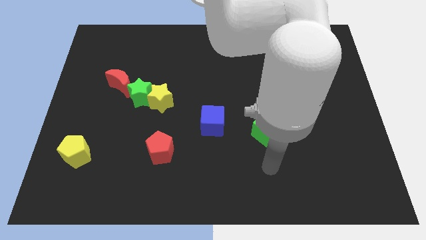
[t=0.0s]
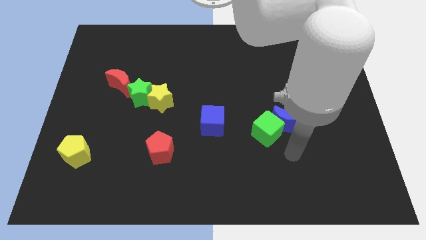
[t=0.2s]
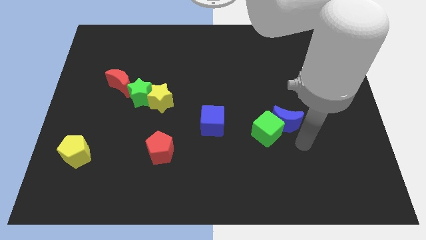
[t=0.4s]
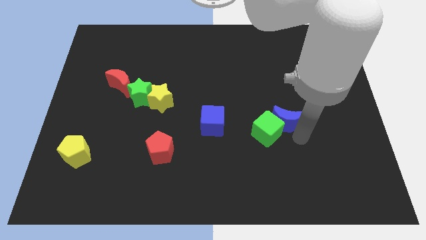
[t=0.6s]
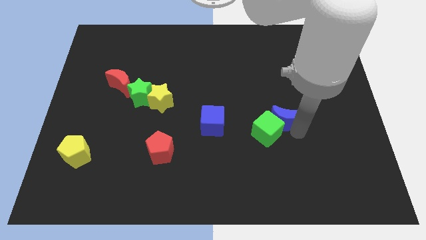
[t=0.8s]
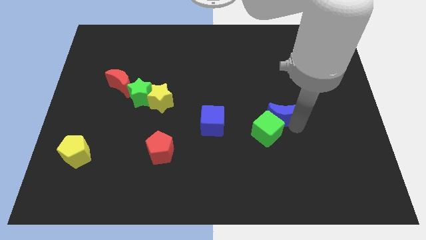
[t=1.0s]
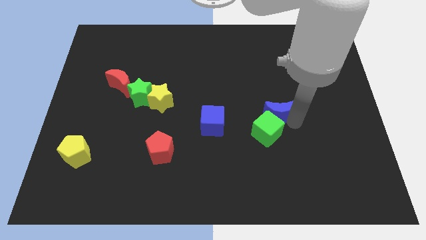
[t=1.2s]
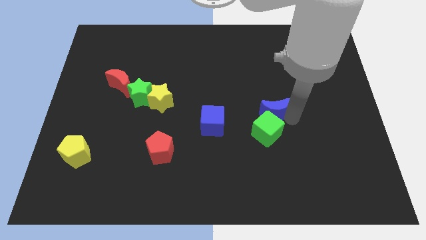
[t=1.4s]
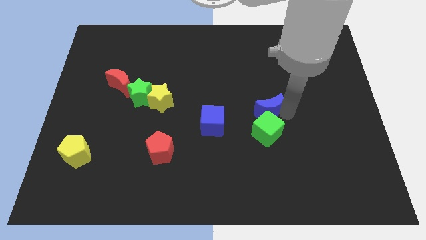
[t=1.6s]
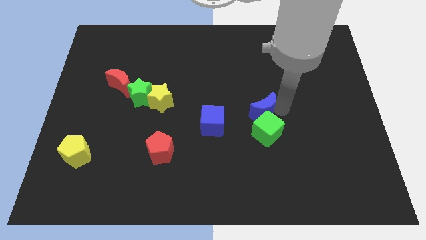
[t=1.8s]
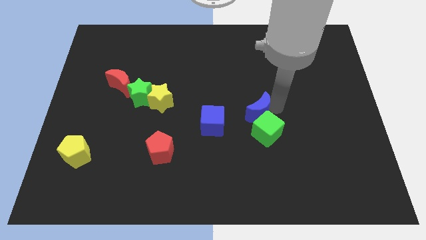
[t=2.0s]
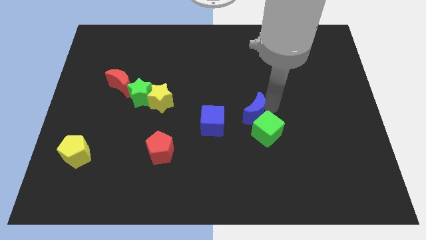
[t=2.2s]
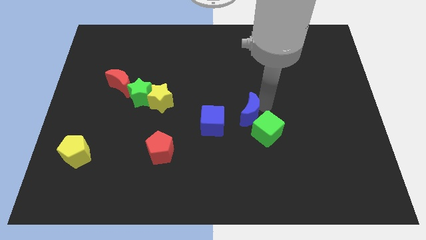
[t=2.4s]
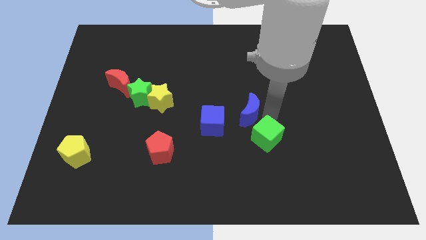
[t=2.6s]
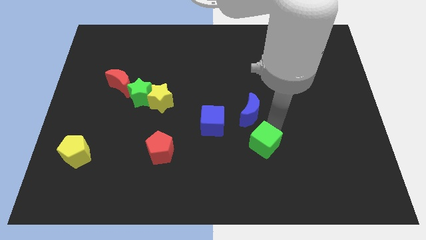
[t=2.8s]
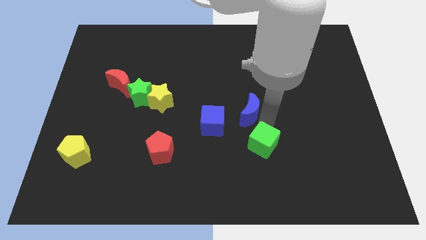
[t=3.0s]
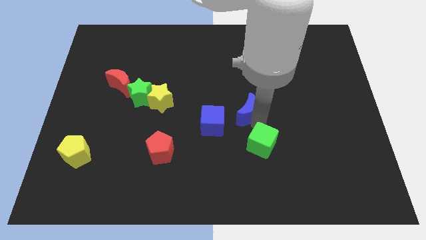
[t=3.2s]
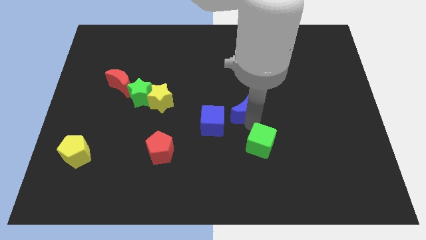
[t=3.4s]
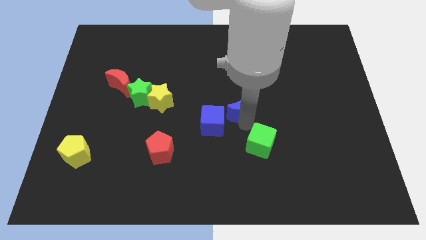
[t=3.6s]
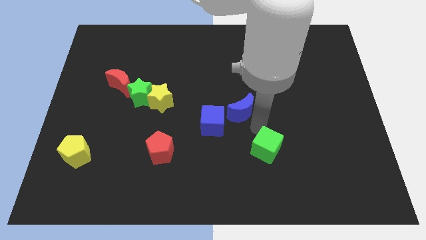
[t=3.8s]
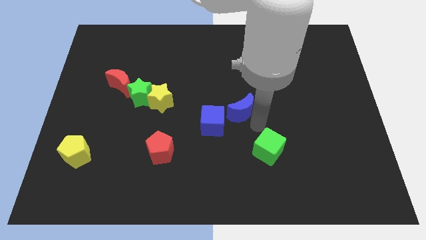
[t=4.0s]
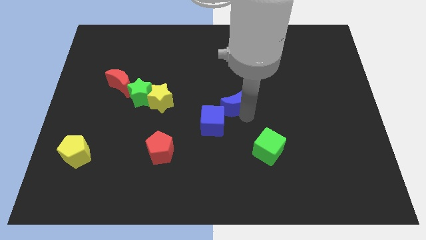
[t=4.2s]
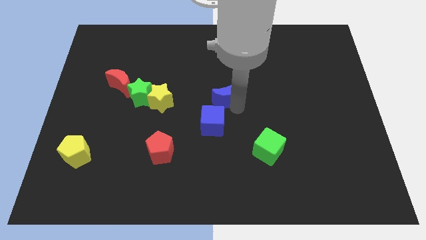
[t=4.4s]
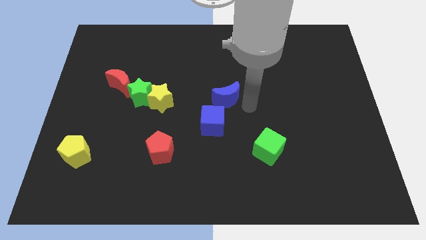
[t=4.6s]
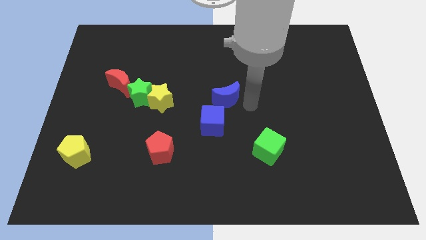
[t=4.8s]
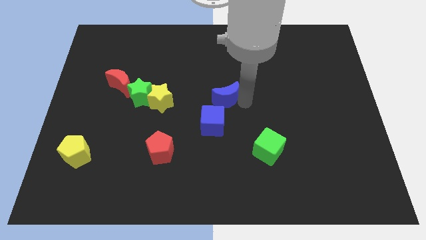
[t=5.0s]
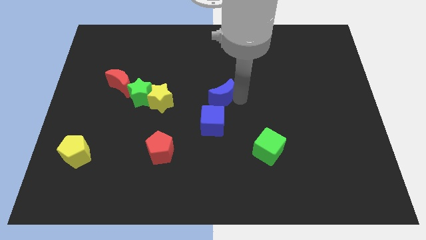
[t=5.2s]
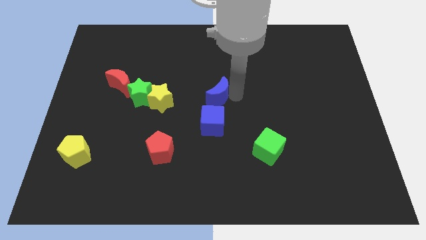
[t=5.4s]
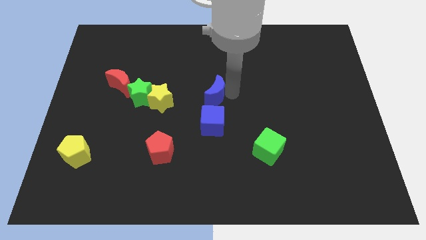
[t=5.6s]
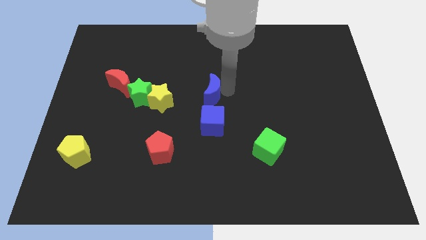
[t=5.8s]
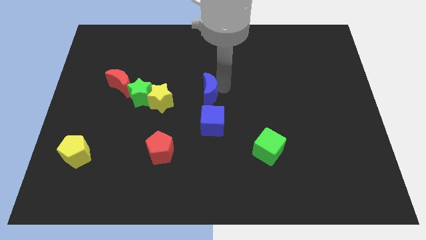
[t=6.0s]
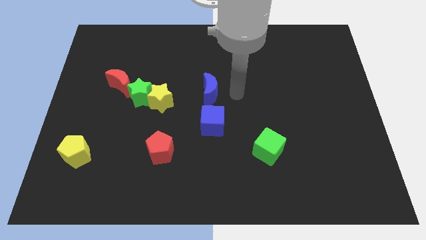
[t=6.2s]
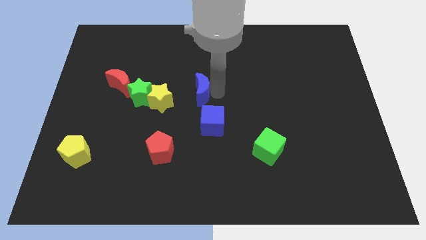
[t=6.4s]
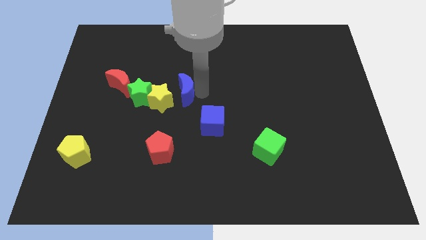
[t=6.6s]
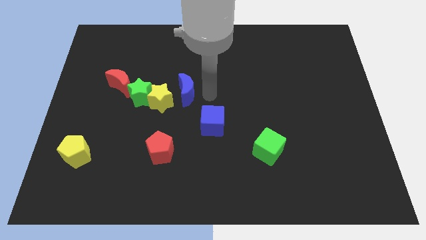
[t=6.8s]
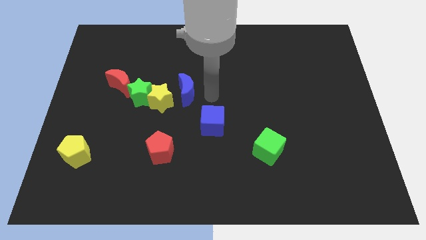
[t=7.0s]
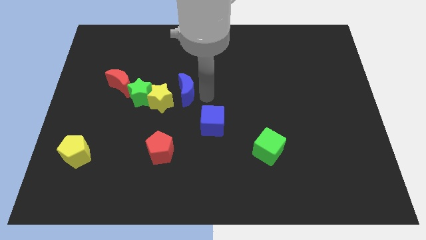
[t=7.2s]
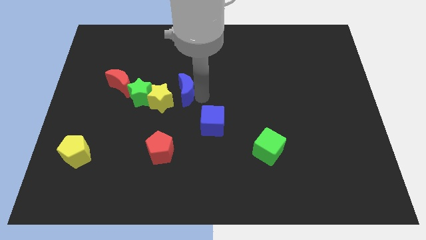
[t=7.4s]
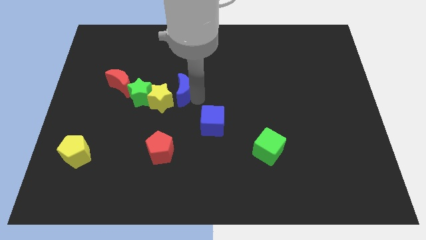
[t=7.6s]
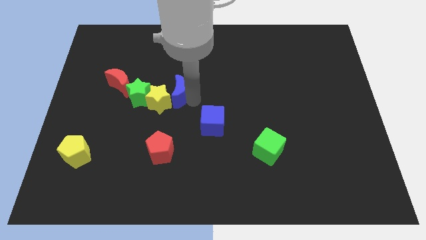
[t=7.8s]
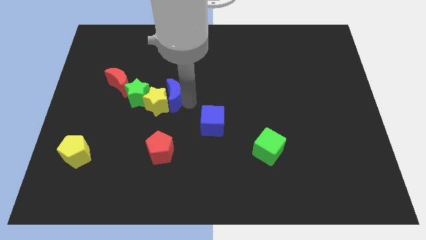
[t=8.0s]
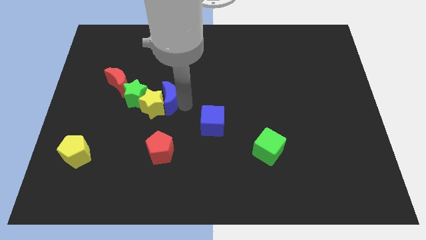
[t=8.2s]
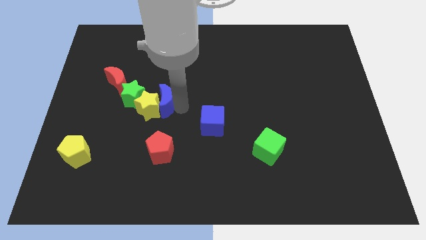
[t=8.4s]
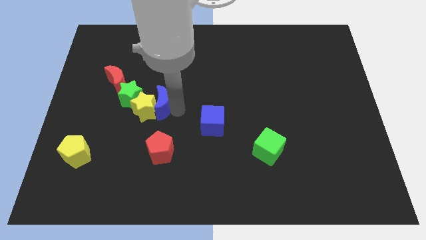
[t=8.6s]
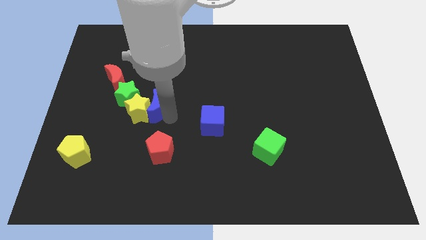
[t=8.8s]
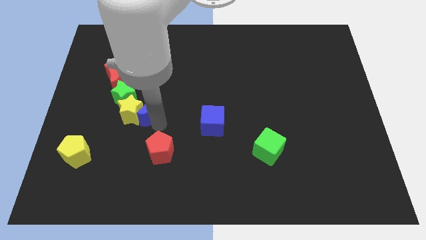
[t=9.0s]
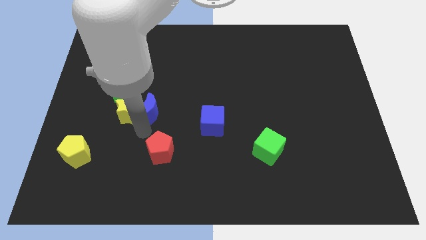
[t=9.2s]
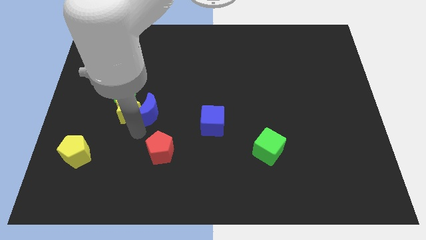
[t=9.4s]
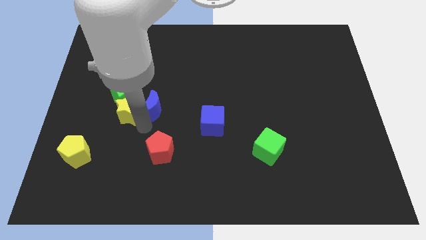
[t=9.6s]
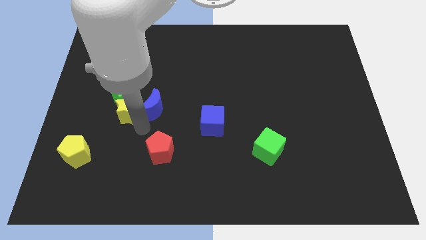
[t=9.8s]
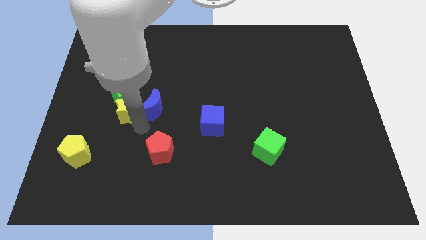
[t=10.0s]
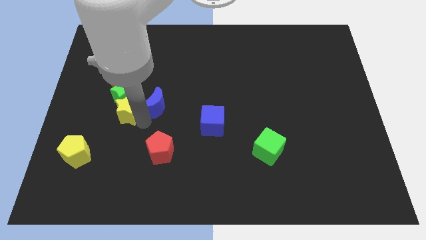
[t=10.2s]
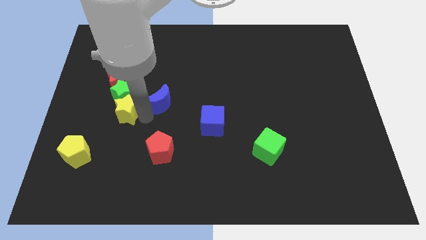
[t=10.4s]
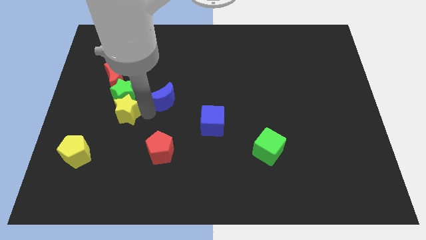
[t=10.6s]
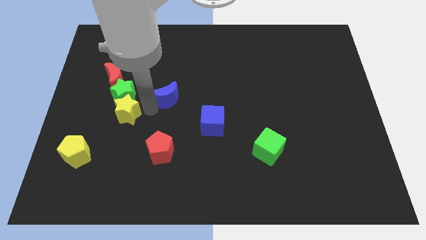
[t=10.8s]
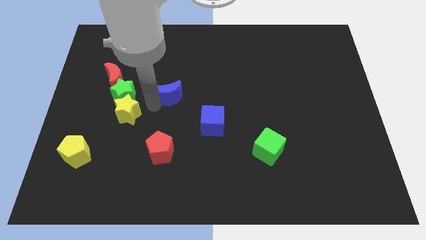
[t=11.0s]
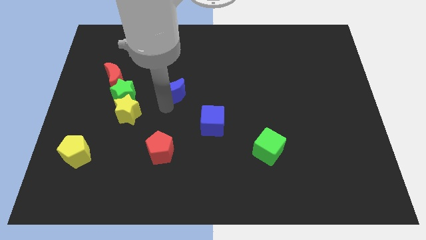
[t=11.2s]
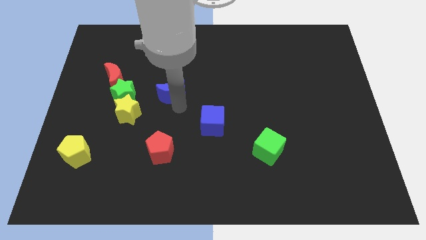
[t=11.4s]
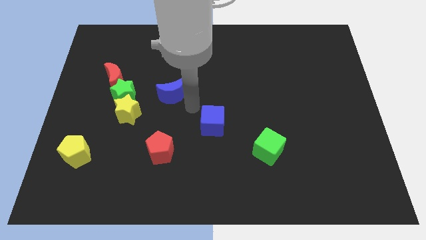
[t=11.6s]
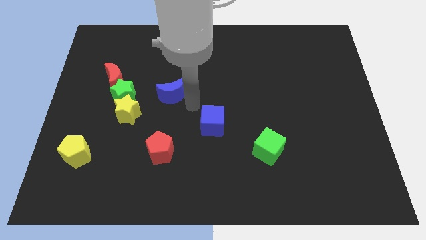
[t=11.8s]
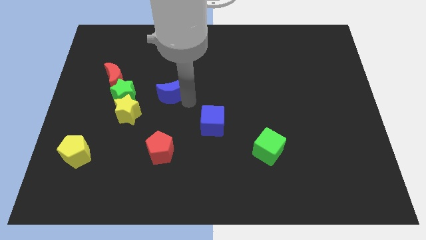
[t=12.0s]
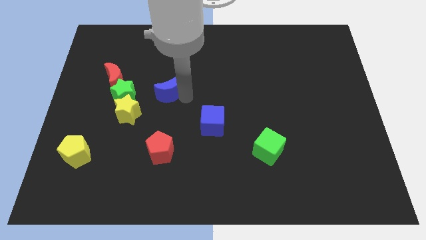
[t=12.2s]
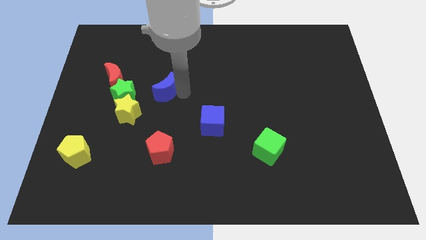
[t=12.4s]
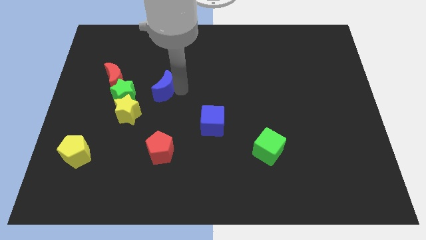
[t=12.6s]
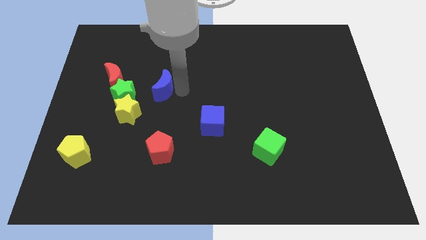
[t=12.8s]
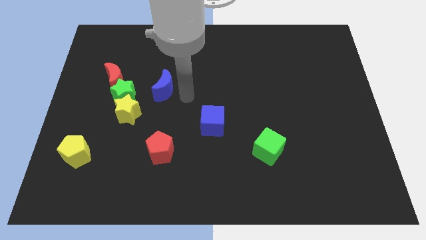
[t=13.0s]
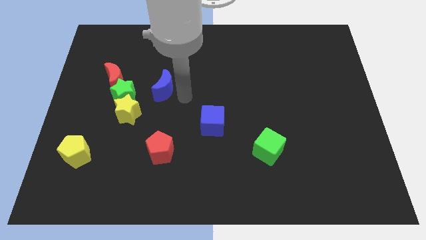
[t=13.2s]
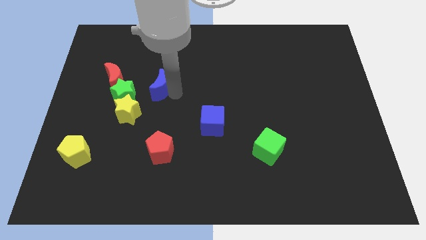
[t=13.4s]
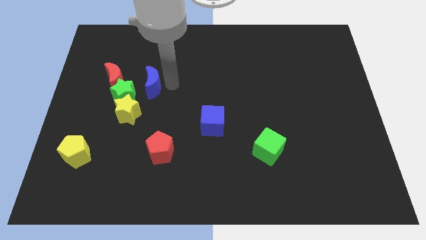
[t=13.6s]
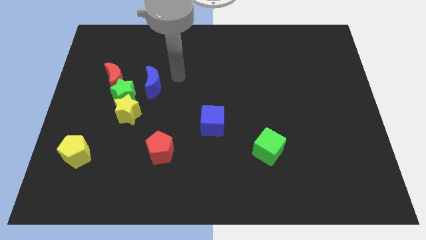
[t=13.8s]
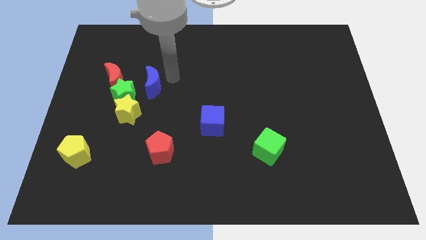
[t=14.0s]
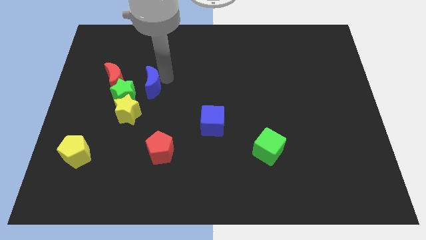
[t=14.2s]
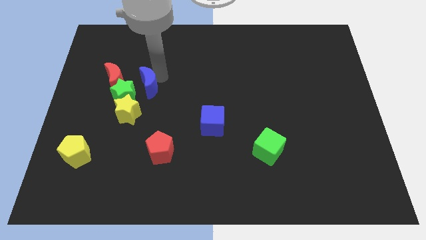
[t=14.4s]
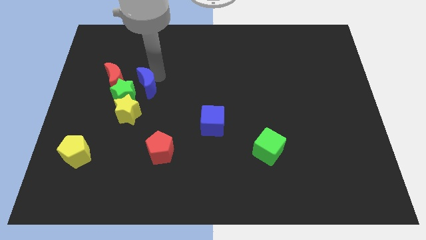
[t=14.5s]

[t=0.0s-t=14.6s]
slide the blue moon to the green star
